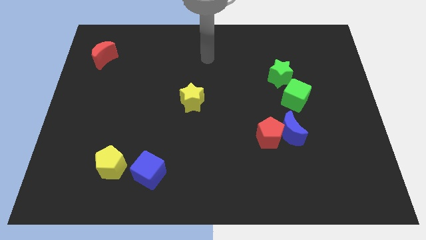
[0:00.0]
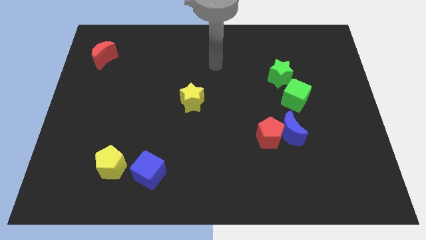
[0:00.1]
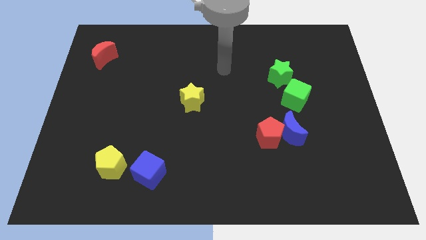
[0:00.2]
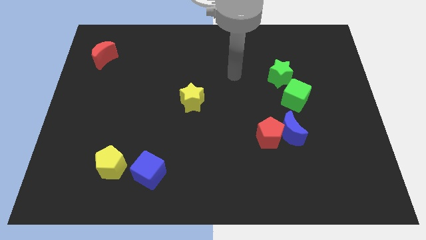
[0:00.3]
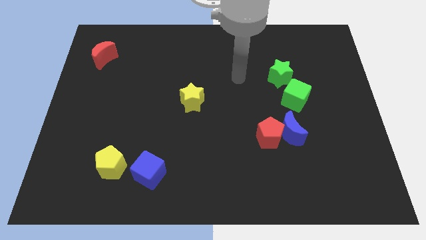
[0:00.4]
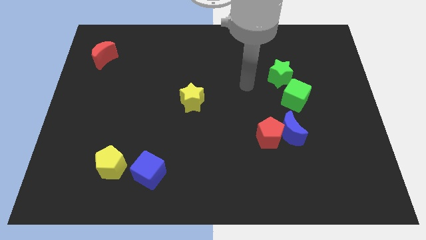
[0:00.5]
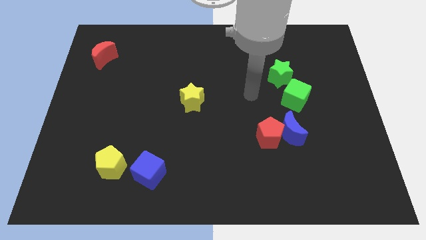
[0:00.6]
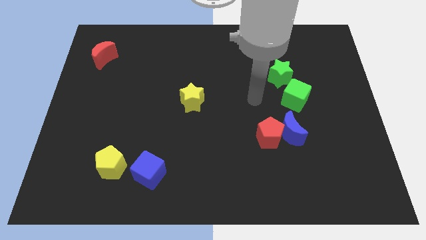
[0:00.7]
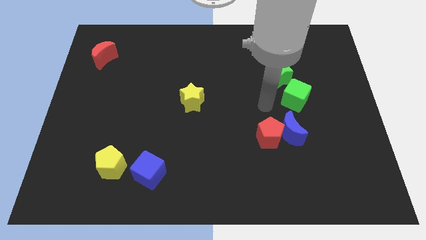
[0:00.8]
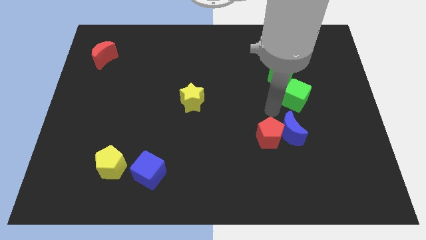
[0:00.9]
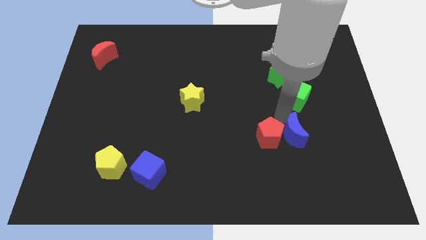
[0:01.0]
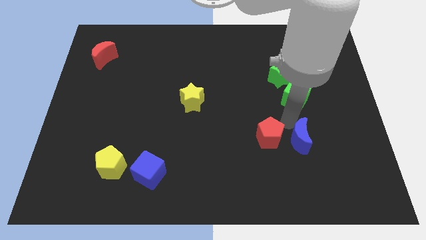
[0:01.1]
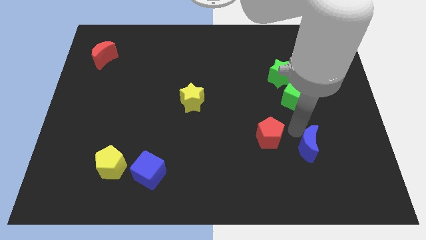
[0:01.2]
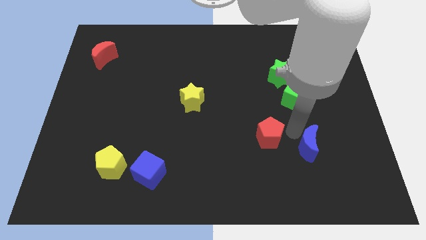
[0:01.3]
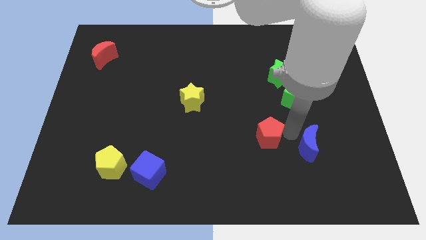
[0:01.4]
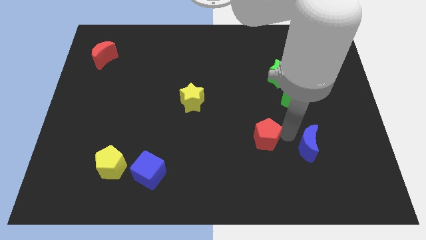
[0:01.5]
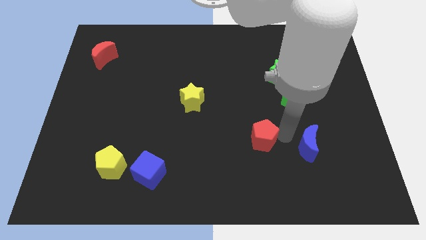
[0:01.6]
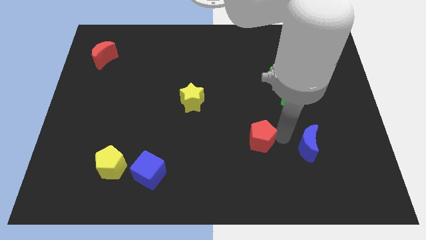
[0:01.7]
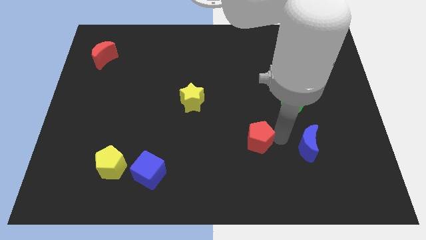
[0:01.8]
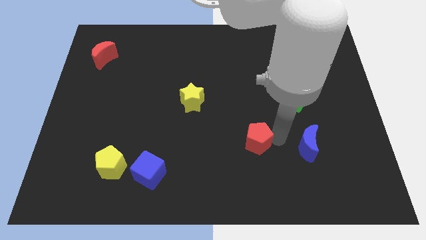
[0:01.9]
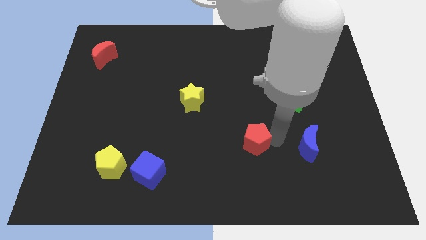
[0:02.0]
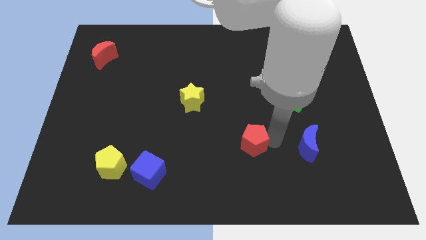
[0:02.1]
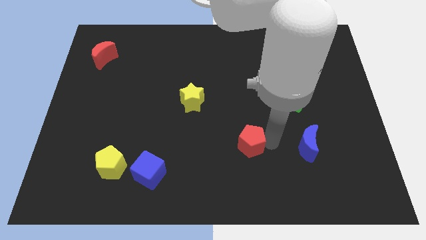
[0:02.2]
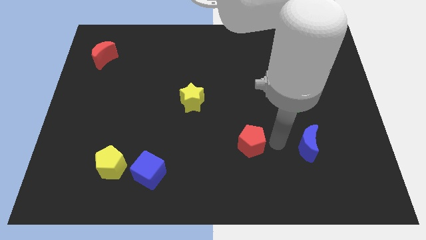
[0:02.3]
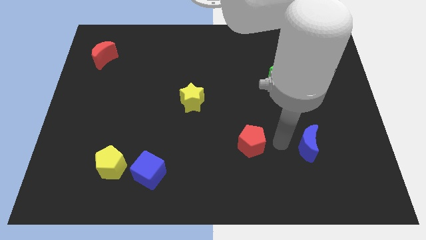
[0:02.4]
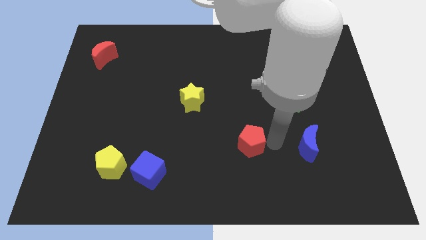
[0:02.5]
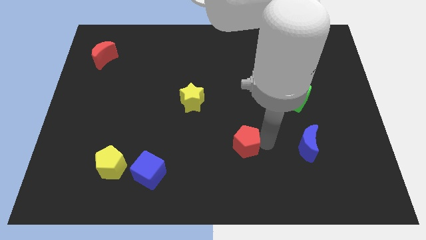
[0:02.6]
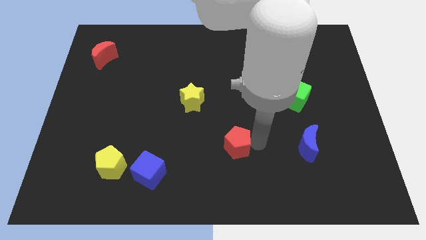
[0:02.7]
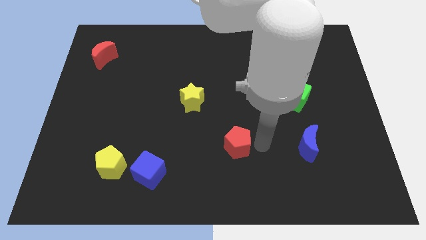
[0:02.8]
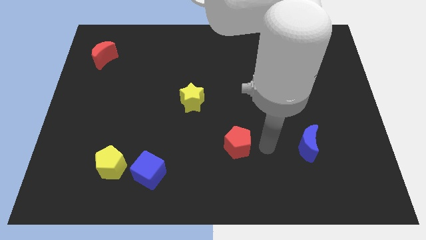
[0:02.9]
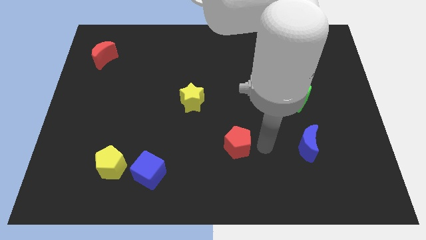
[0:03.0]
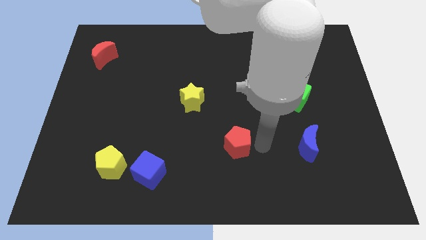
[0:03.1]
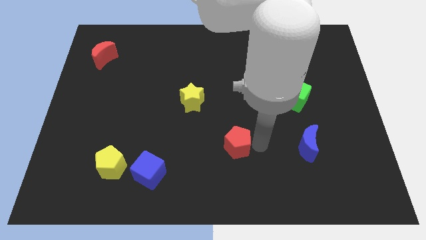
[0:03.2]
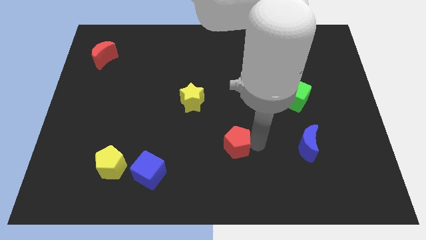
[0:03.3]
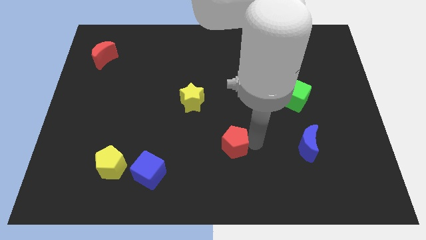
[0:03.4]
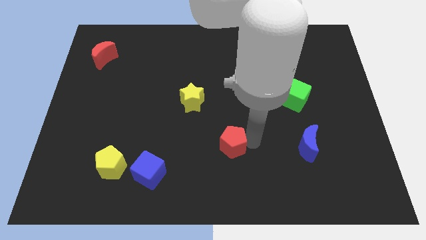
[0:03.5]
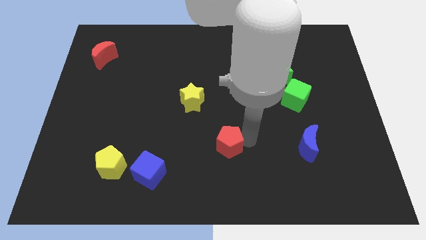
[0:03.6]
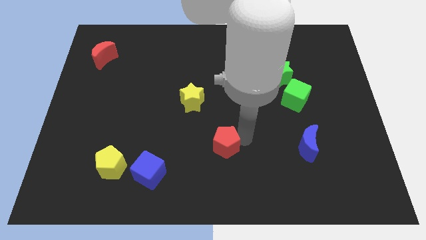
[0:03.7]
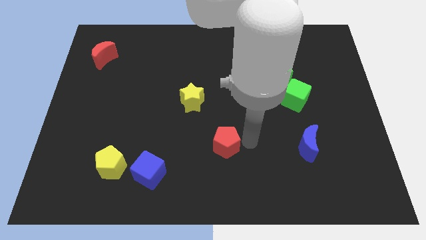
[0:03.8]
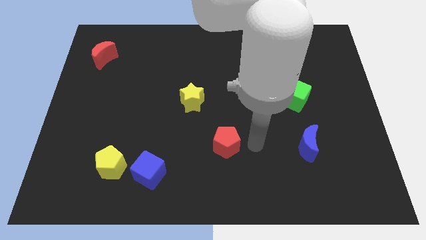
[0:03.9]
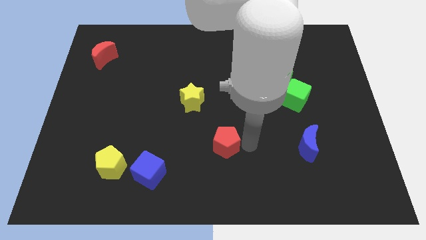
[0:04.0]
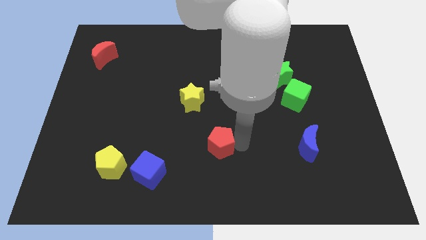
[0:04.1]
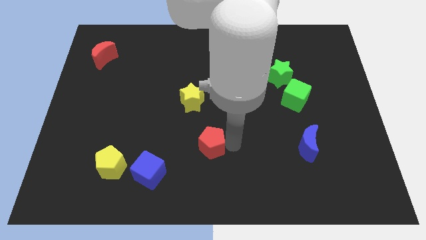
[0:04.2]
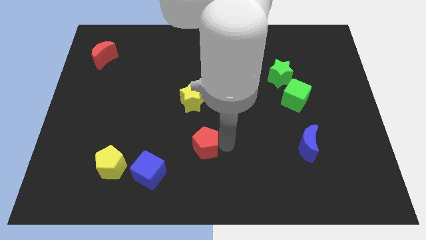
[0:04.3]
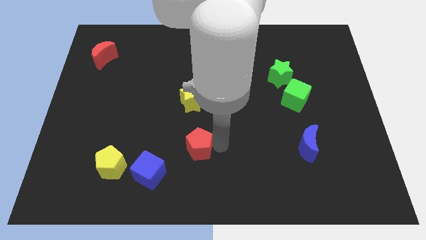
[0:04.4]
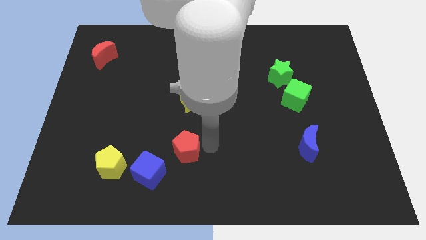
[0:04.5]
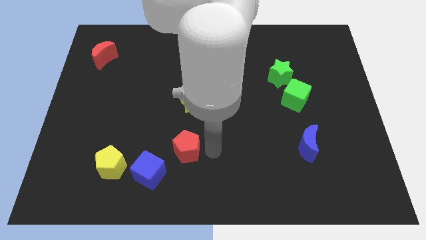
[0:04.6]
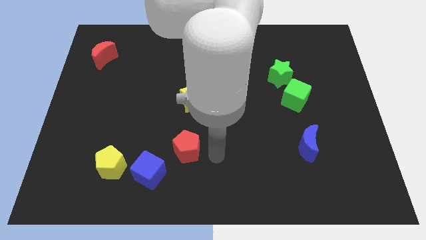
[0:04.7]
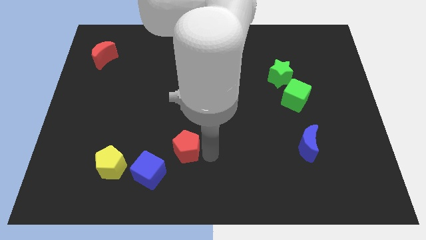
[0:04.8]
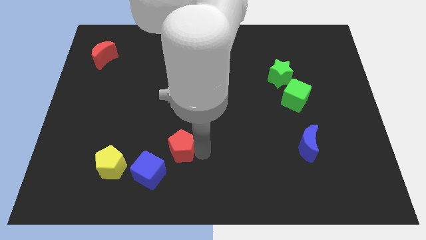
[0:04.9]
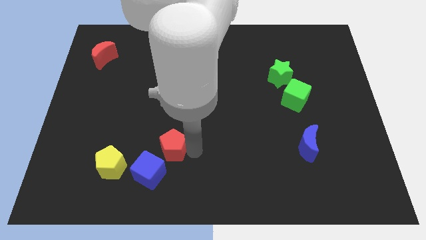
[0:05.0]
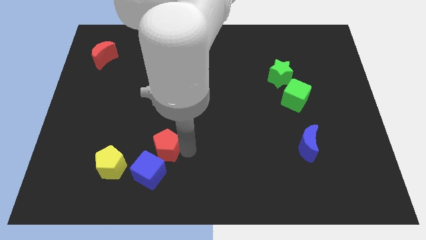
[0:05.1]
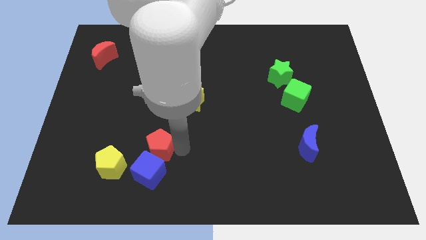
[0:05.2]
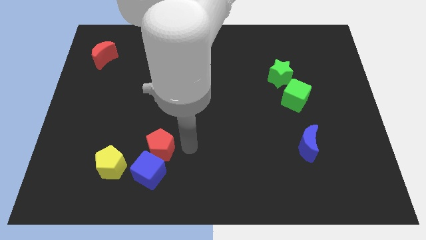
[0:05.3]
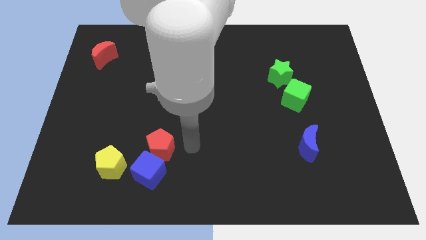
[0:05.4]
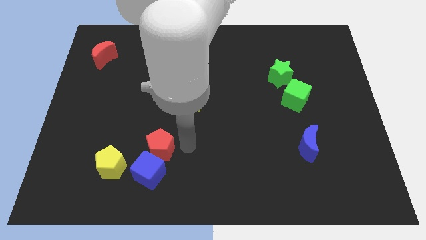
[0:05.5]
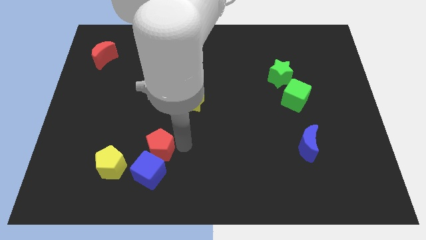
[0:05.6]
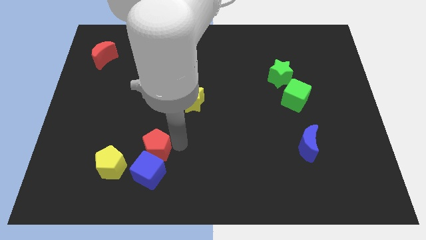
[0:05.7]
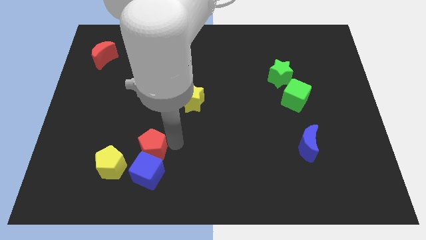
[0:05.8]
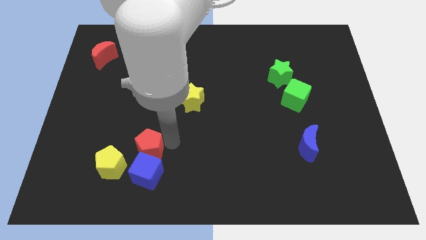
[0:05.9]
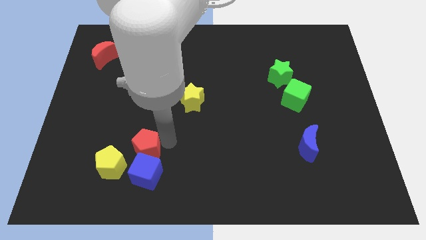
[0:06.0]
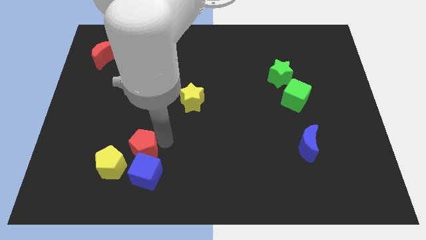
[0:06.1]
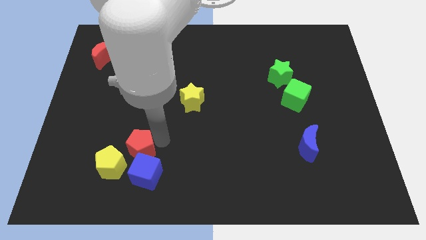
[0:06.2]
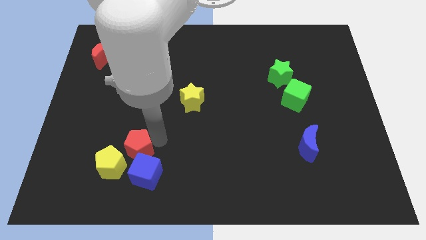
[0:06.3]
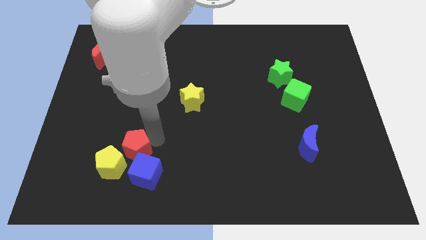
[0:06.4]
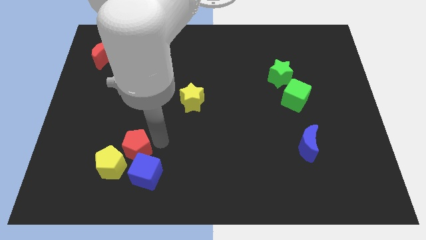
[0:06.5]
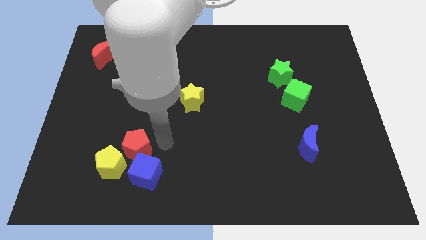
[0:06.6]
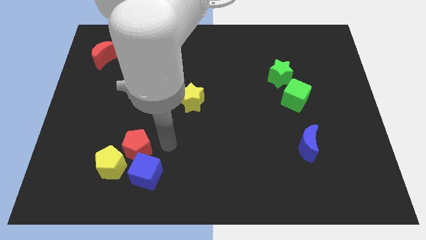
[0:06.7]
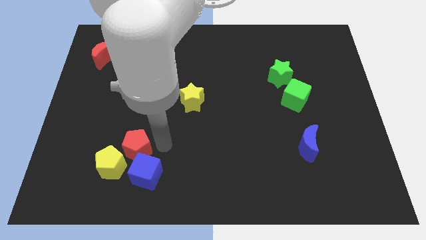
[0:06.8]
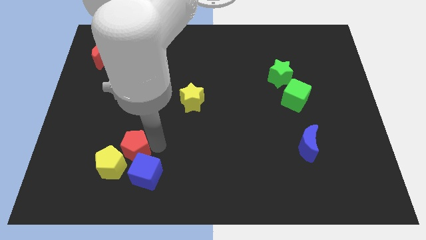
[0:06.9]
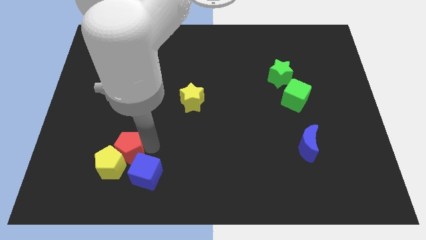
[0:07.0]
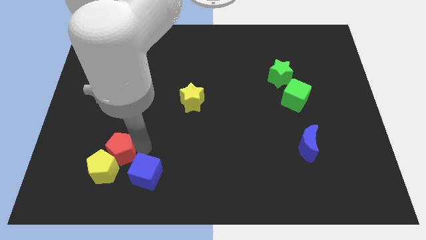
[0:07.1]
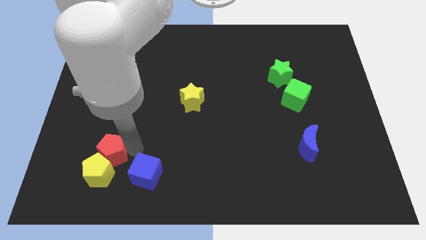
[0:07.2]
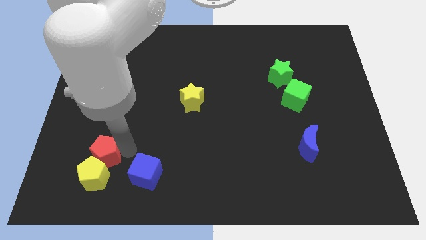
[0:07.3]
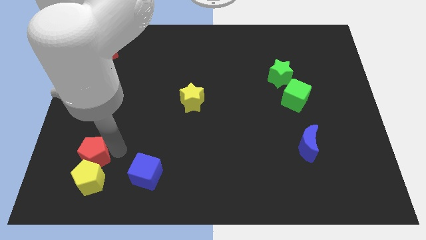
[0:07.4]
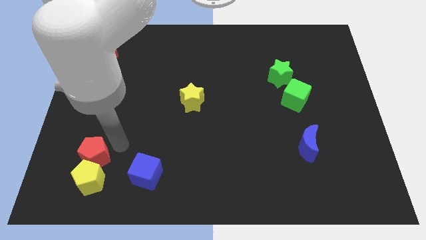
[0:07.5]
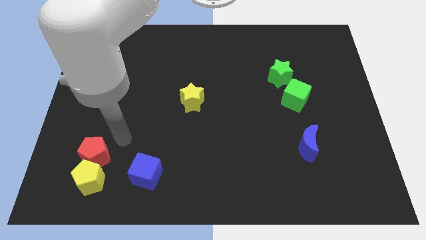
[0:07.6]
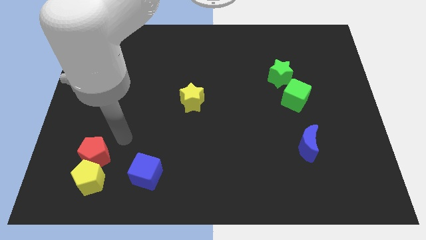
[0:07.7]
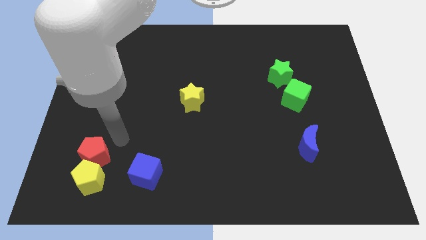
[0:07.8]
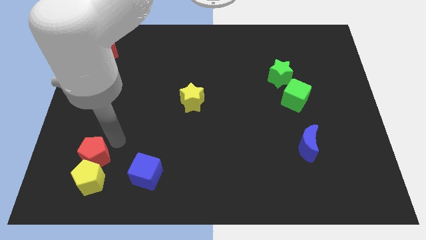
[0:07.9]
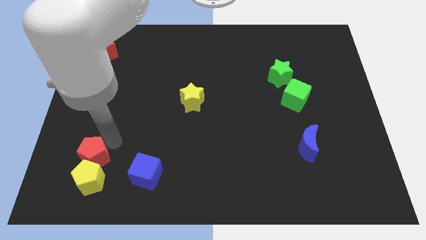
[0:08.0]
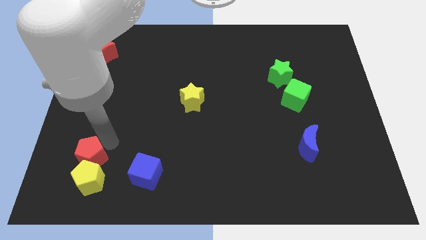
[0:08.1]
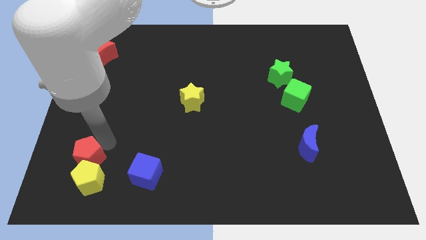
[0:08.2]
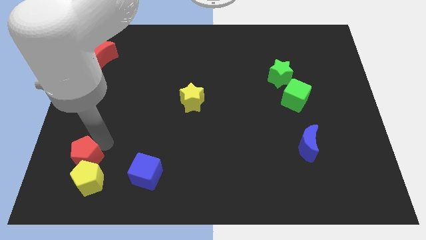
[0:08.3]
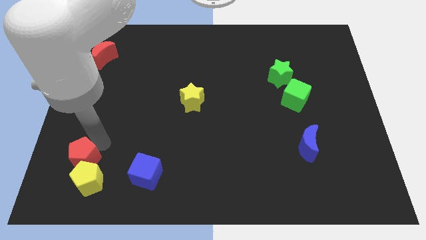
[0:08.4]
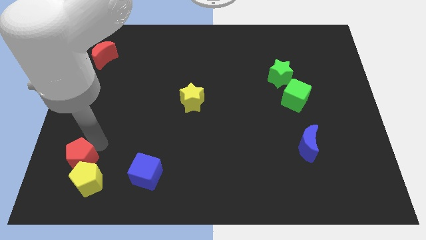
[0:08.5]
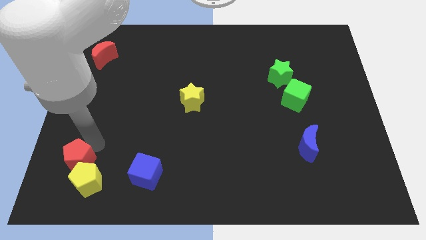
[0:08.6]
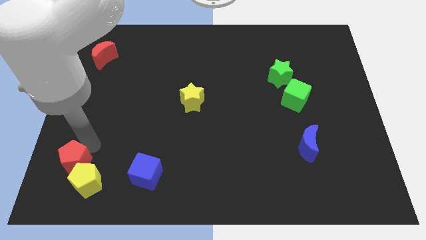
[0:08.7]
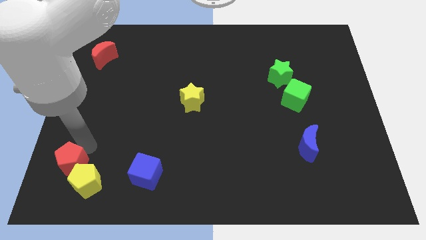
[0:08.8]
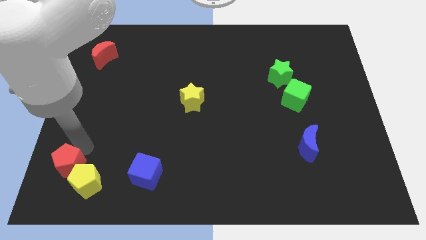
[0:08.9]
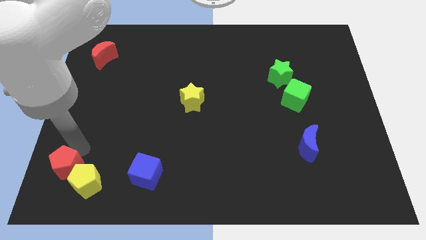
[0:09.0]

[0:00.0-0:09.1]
push the red pentagon to the lower left corner
